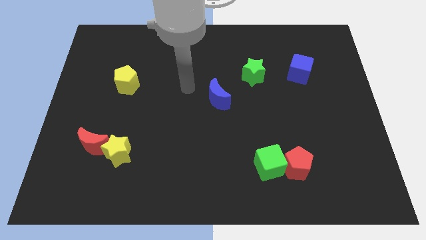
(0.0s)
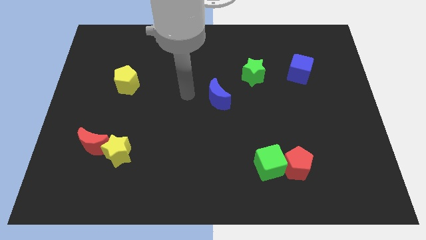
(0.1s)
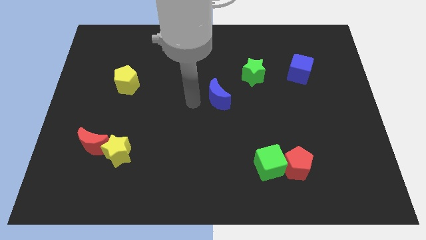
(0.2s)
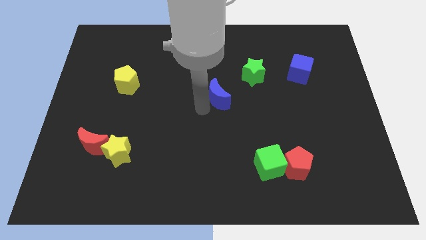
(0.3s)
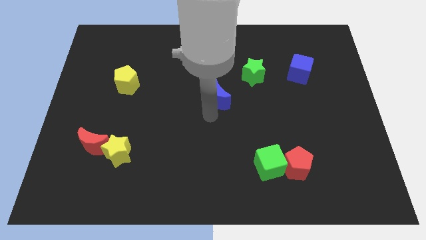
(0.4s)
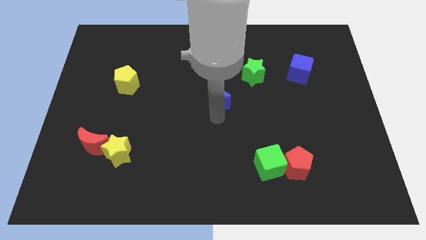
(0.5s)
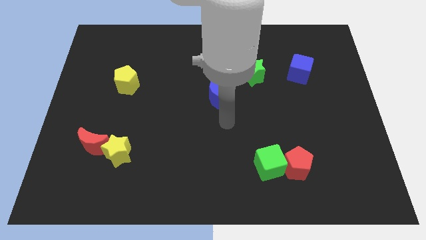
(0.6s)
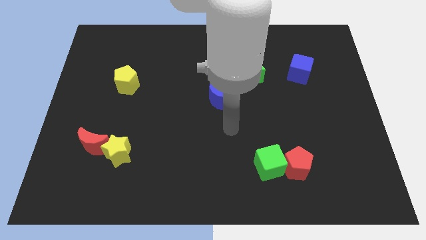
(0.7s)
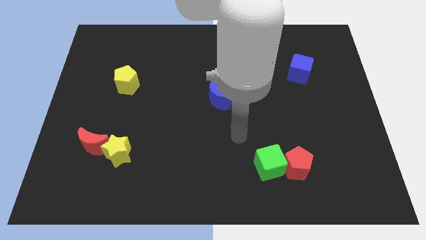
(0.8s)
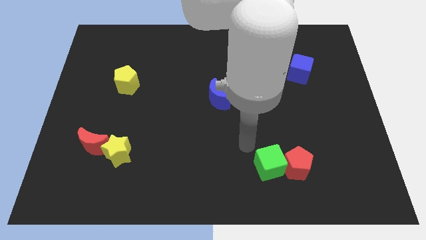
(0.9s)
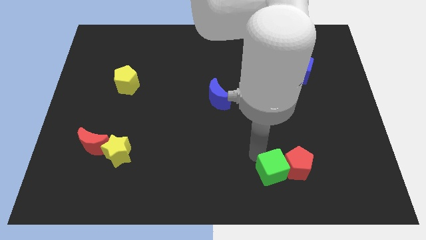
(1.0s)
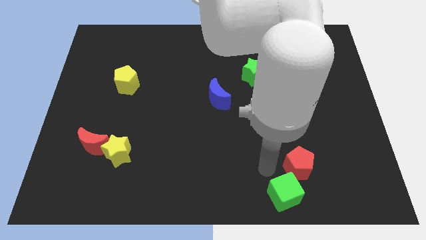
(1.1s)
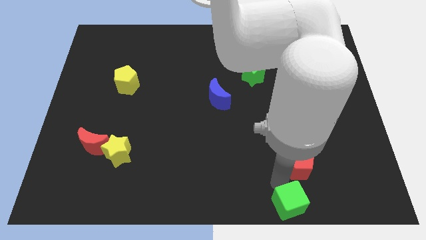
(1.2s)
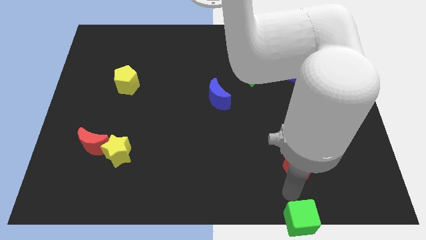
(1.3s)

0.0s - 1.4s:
pull the red pentagon apart from the green cube

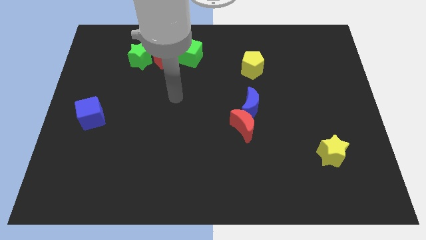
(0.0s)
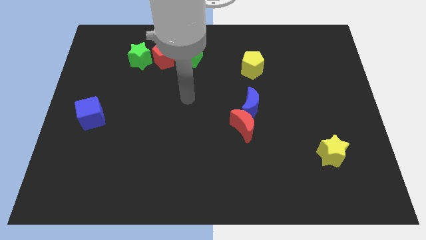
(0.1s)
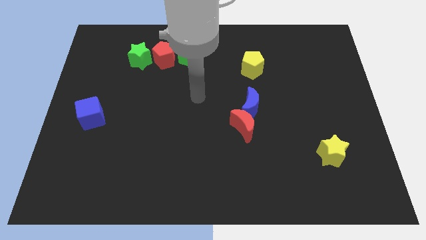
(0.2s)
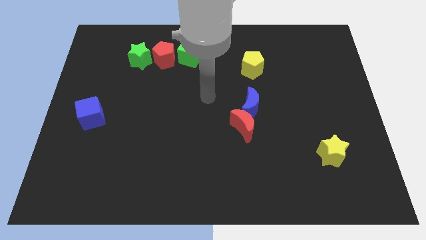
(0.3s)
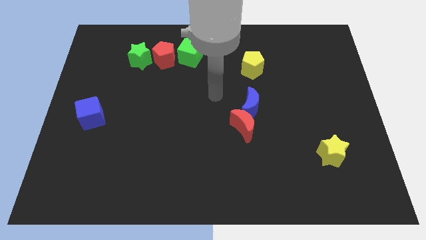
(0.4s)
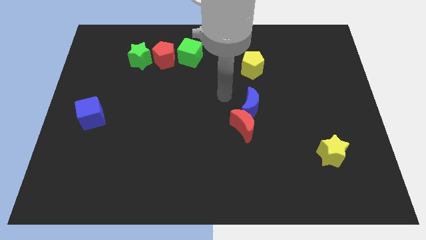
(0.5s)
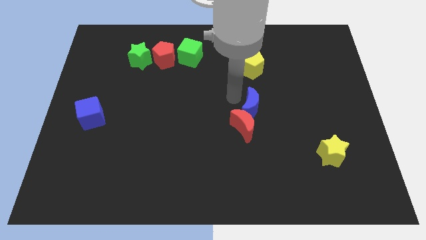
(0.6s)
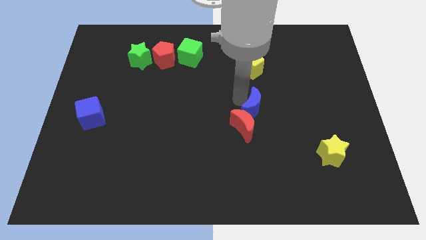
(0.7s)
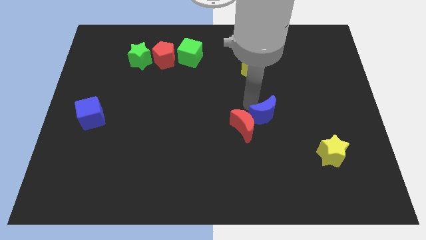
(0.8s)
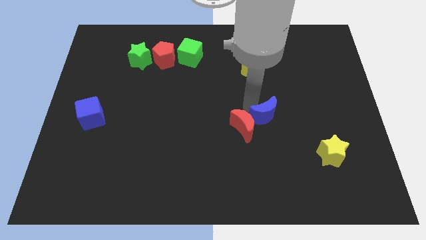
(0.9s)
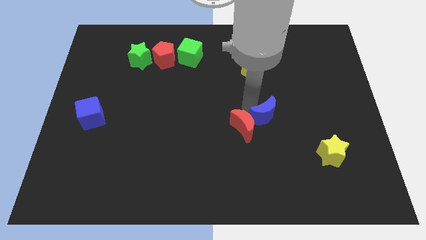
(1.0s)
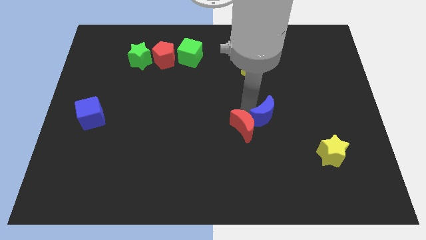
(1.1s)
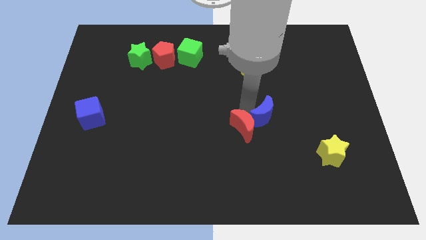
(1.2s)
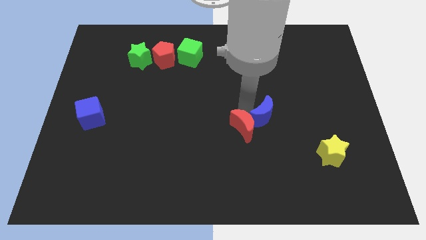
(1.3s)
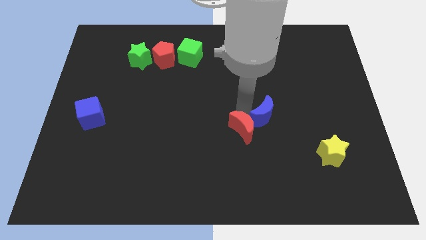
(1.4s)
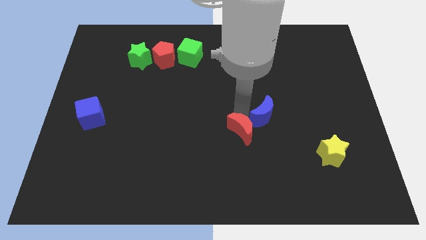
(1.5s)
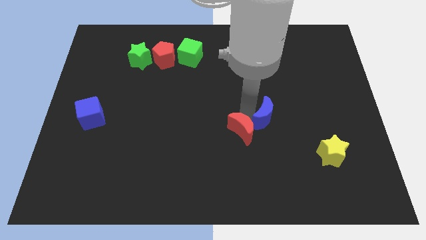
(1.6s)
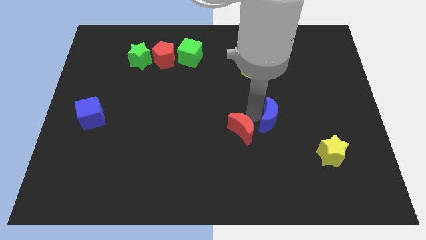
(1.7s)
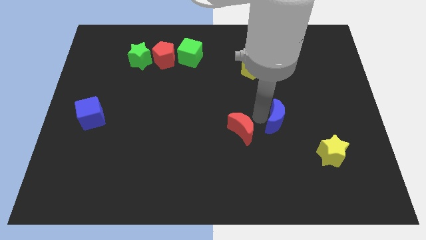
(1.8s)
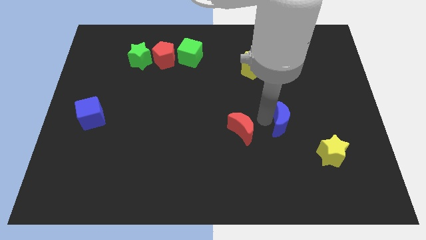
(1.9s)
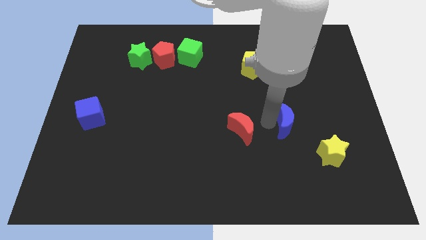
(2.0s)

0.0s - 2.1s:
separate the red moon from the blue moon

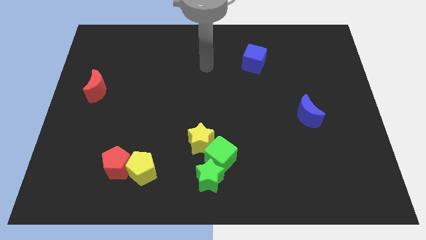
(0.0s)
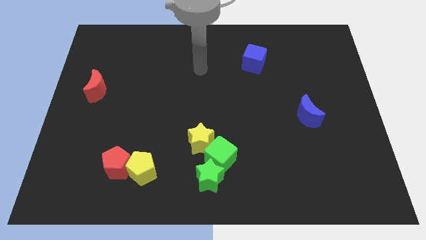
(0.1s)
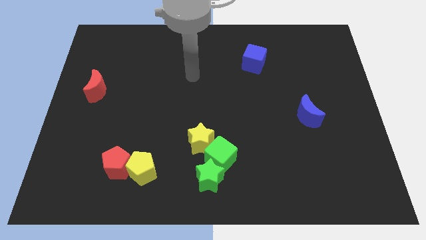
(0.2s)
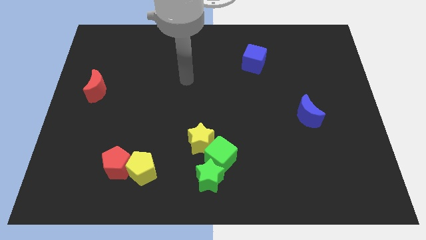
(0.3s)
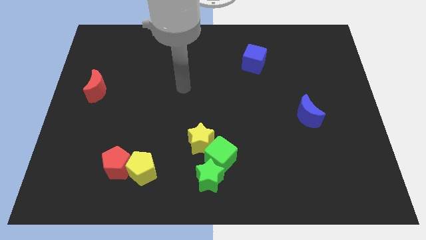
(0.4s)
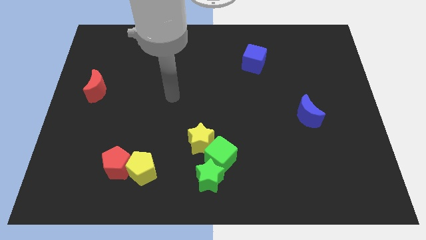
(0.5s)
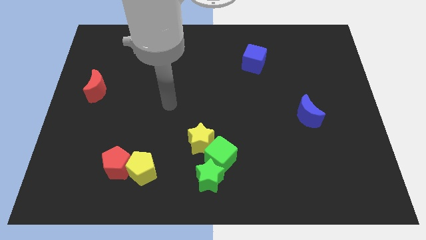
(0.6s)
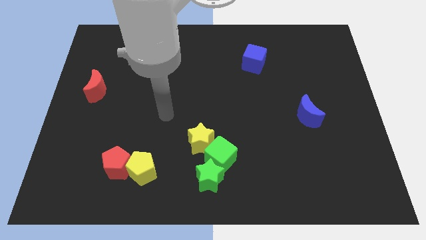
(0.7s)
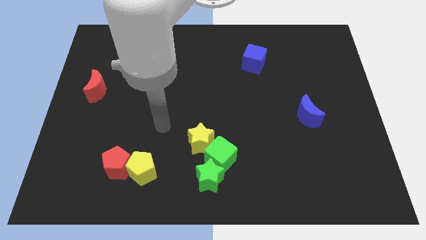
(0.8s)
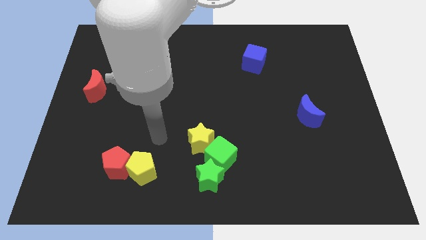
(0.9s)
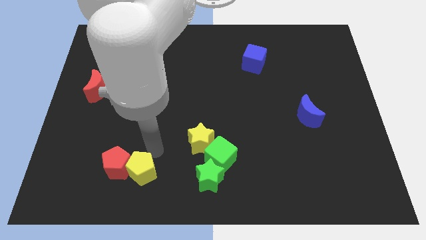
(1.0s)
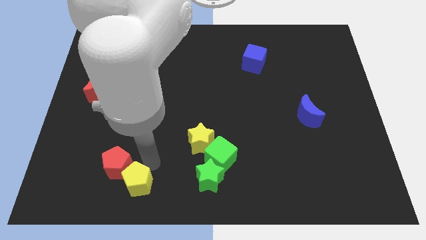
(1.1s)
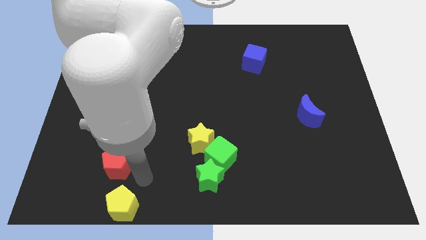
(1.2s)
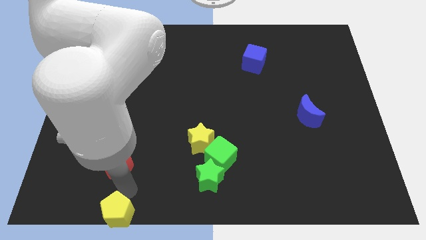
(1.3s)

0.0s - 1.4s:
separate the red pentagon from the yellow pentagon

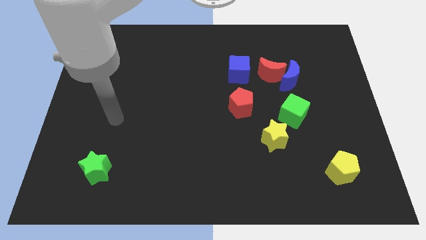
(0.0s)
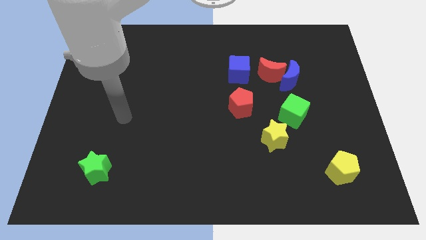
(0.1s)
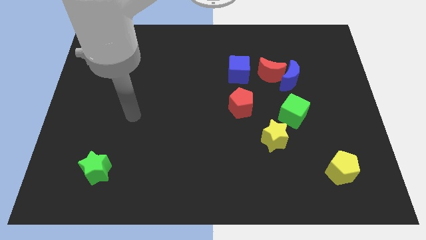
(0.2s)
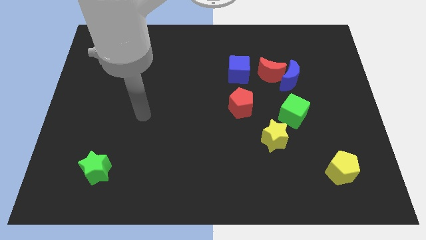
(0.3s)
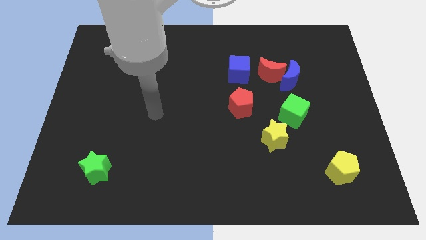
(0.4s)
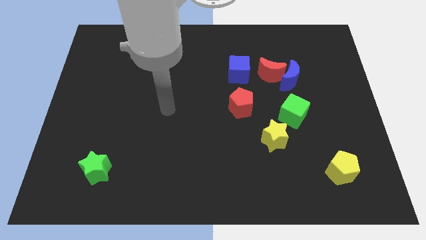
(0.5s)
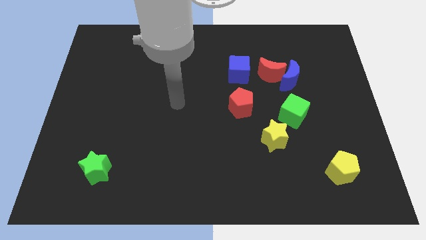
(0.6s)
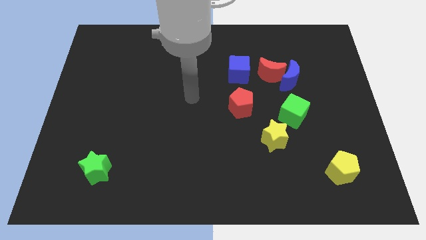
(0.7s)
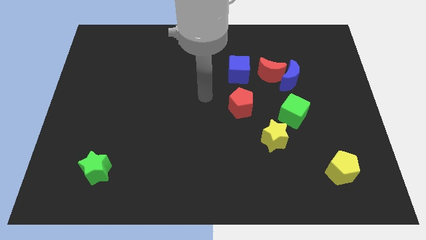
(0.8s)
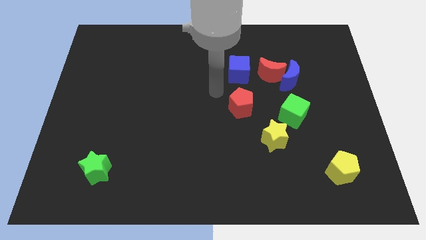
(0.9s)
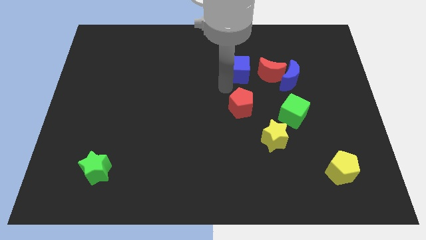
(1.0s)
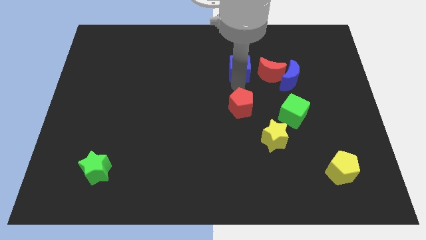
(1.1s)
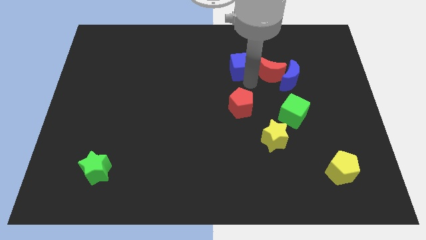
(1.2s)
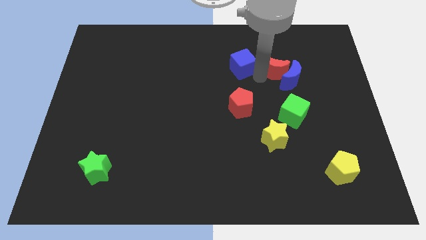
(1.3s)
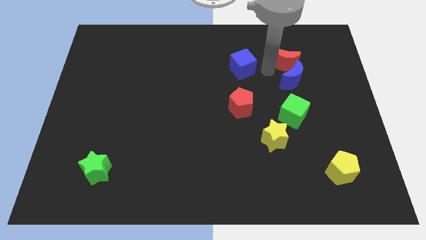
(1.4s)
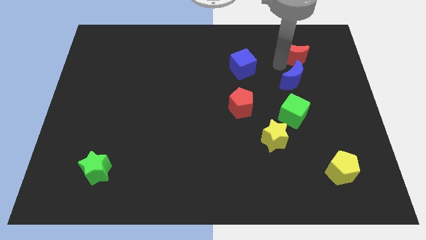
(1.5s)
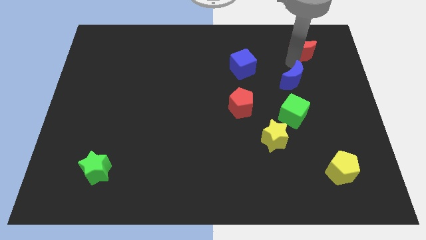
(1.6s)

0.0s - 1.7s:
separate the blue moon from the red moon

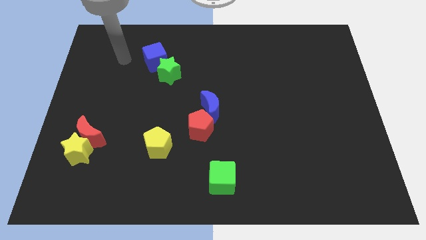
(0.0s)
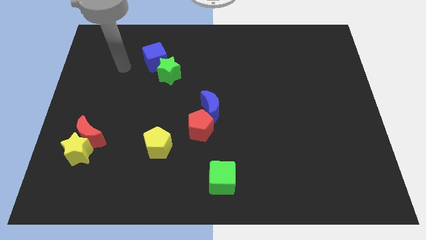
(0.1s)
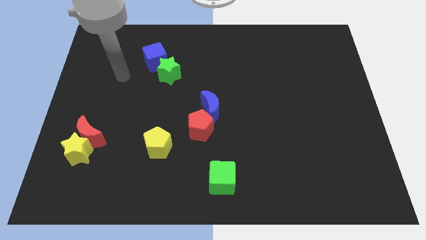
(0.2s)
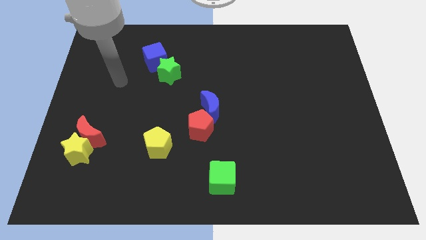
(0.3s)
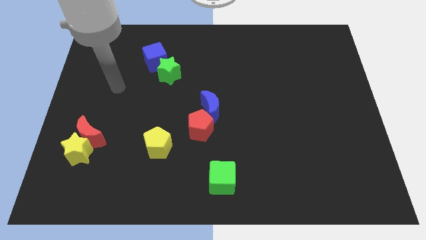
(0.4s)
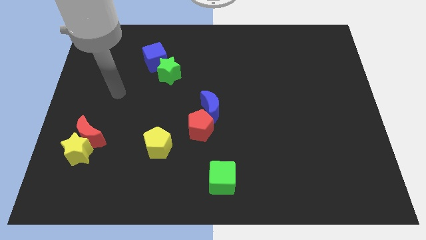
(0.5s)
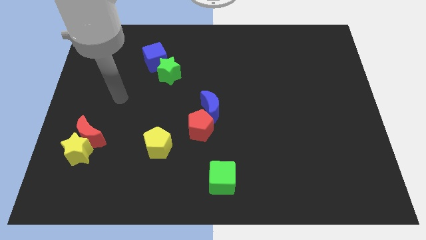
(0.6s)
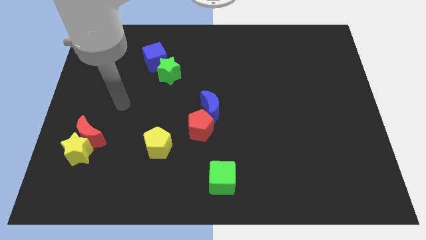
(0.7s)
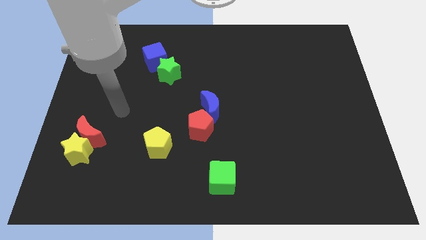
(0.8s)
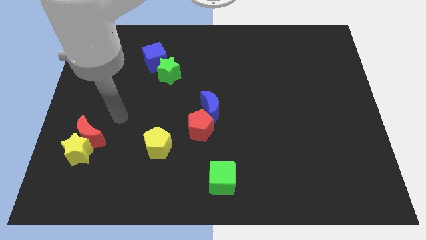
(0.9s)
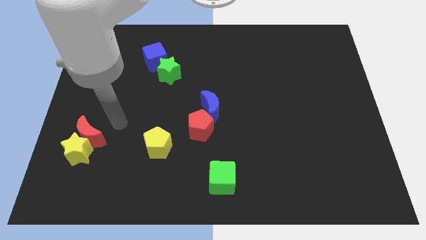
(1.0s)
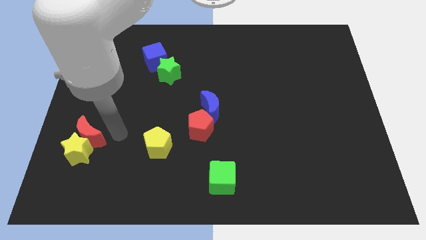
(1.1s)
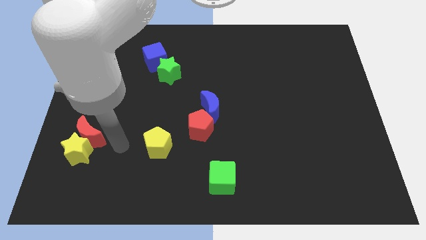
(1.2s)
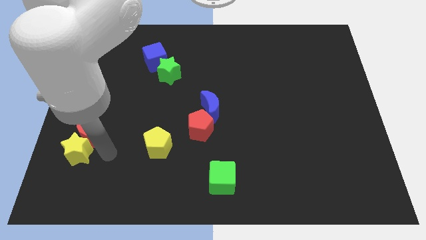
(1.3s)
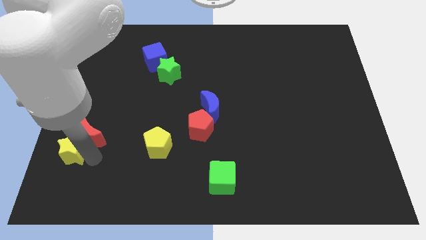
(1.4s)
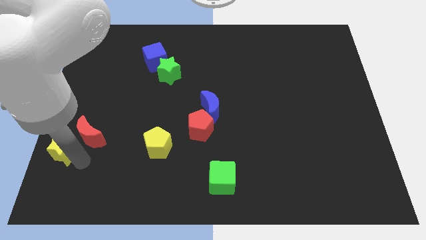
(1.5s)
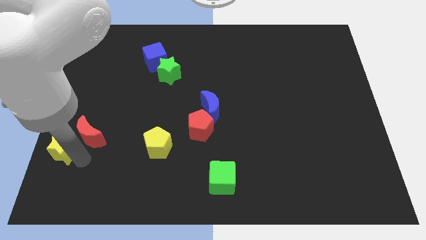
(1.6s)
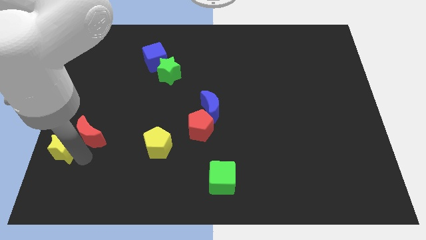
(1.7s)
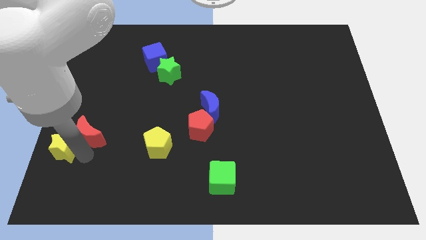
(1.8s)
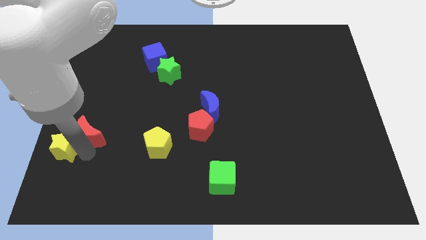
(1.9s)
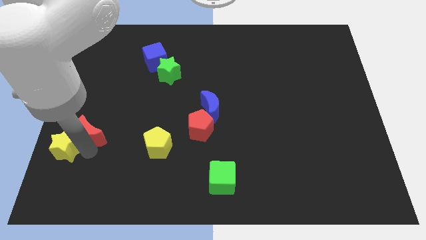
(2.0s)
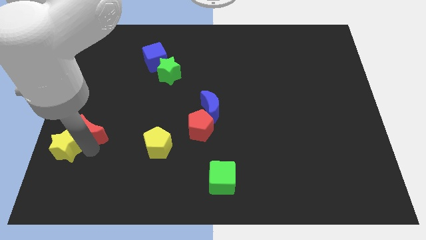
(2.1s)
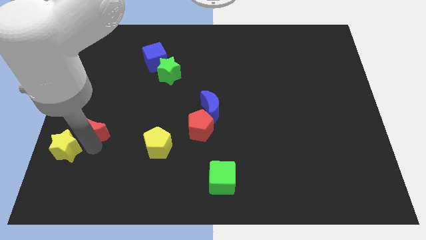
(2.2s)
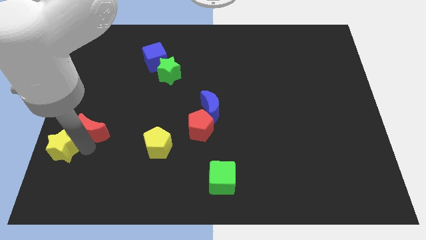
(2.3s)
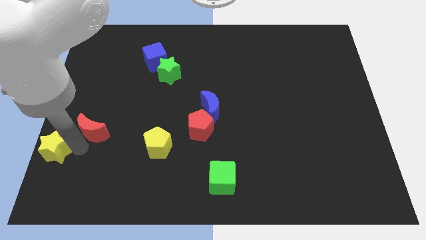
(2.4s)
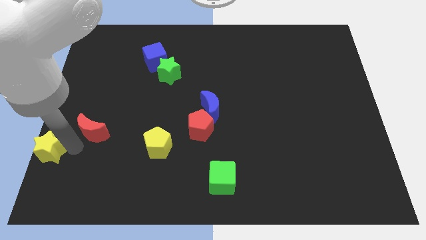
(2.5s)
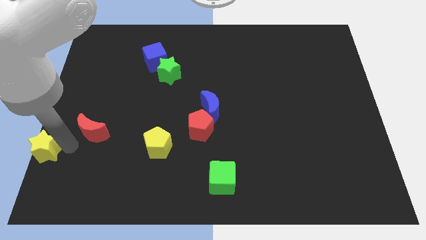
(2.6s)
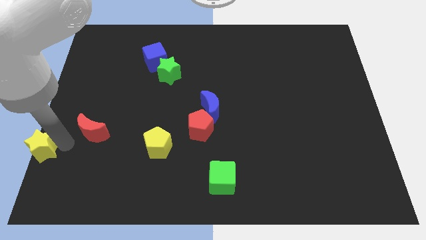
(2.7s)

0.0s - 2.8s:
move the red moon away from the yellow star
